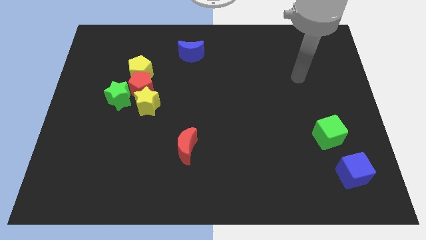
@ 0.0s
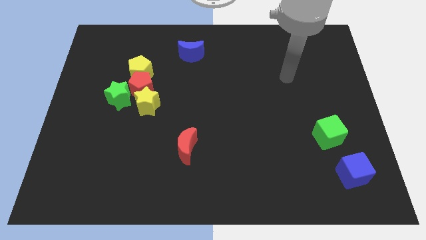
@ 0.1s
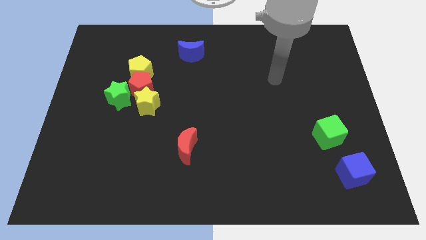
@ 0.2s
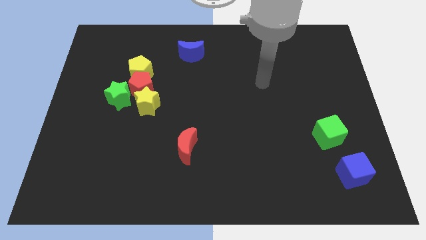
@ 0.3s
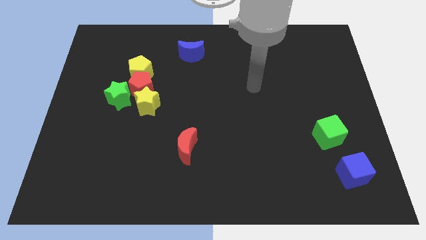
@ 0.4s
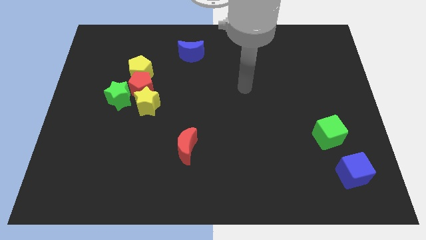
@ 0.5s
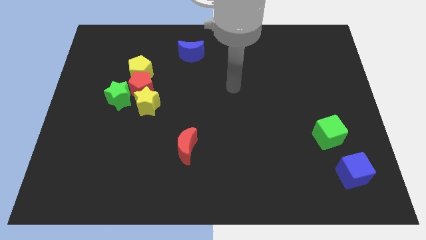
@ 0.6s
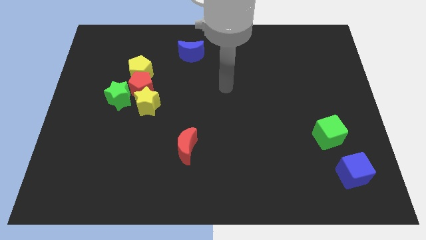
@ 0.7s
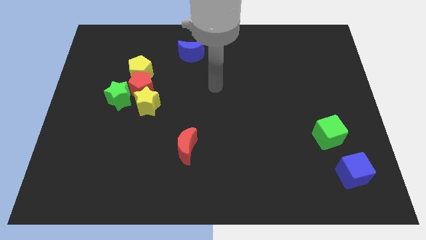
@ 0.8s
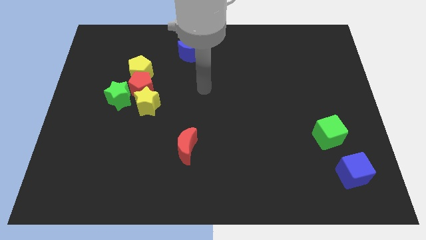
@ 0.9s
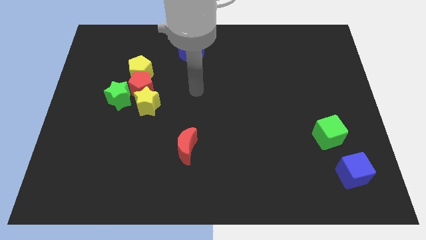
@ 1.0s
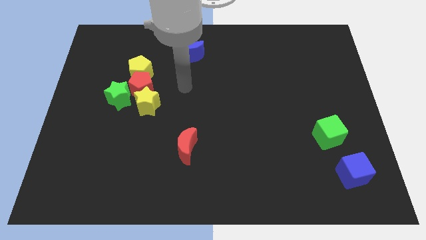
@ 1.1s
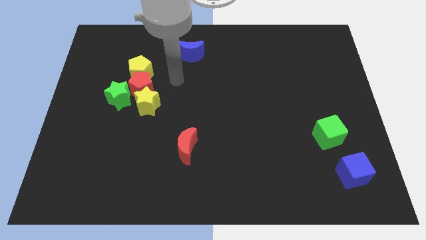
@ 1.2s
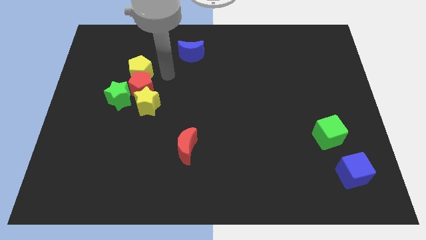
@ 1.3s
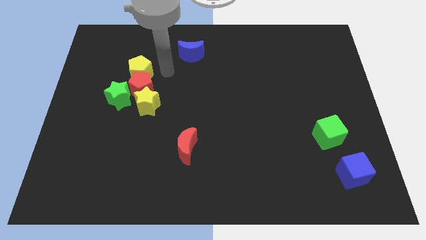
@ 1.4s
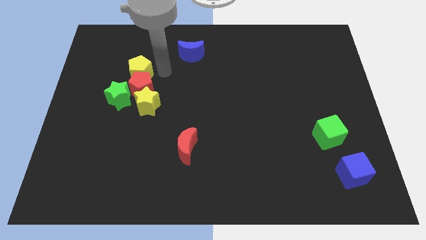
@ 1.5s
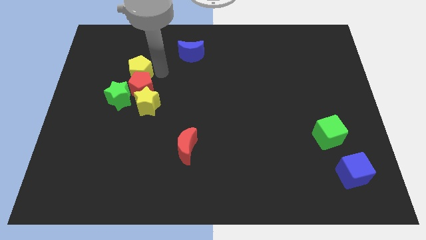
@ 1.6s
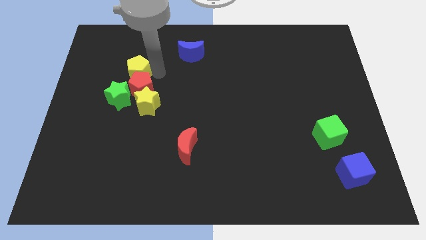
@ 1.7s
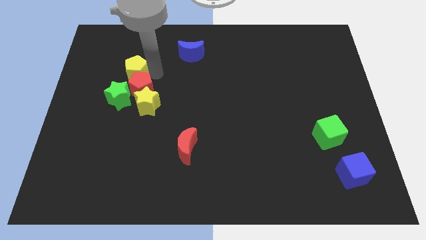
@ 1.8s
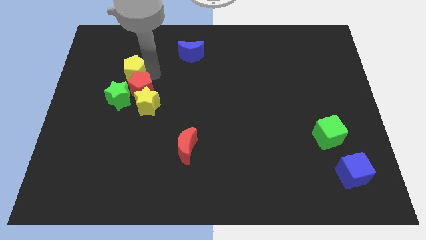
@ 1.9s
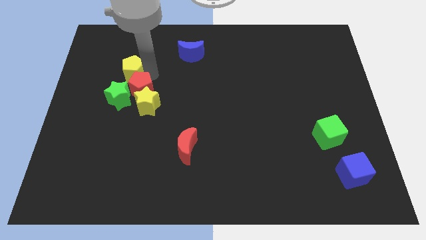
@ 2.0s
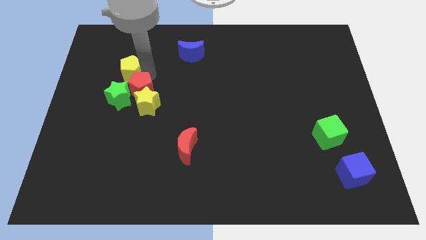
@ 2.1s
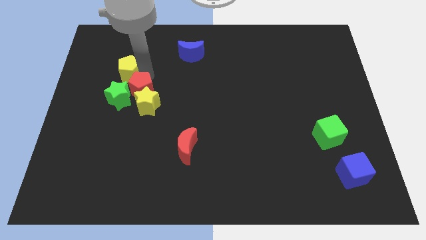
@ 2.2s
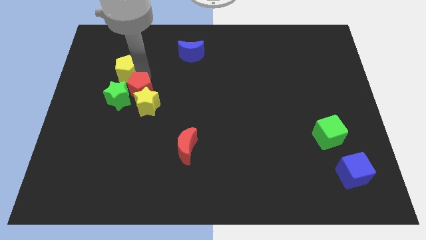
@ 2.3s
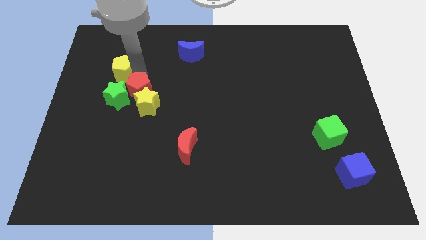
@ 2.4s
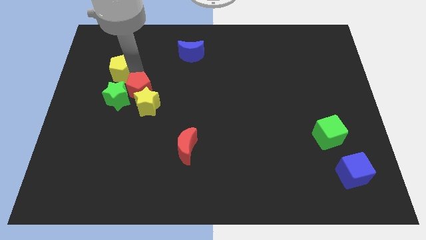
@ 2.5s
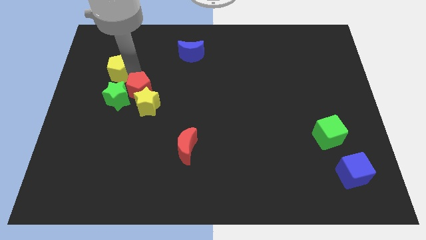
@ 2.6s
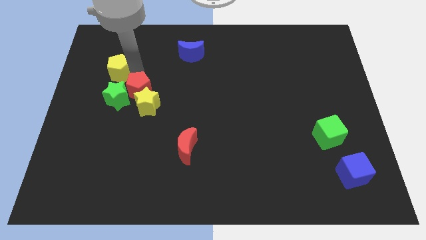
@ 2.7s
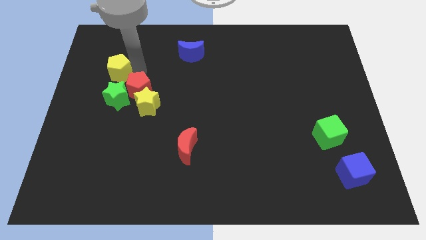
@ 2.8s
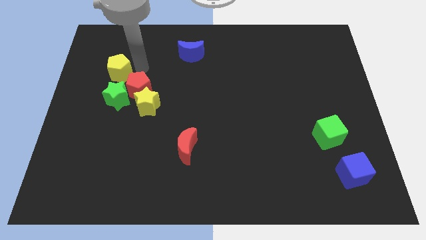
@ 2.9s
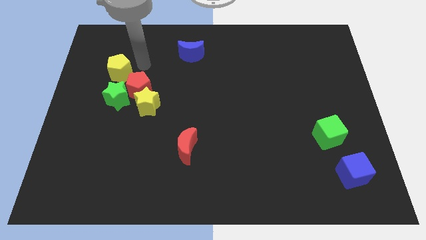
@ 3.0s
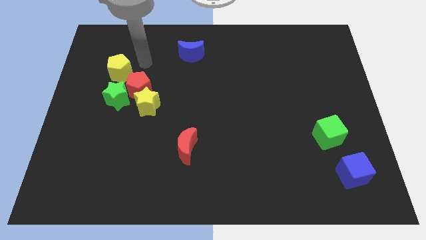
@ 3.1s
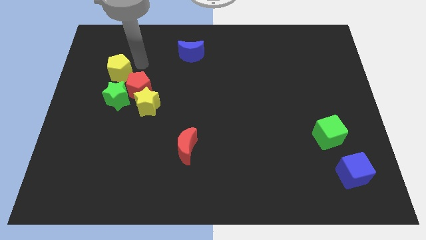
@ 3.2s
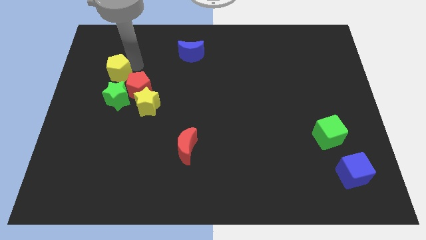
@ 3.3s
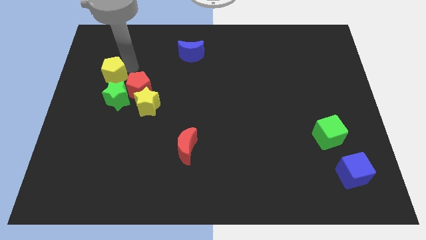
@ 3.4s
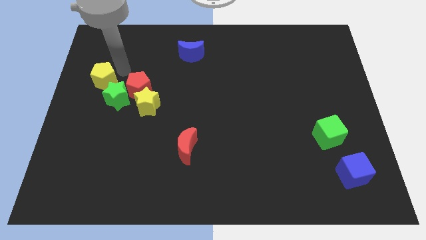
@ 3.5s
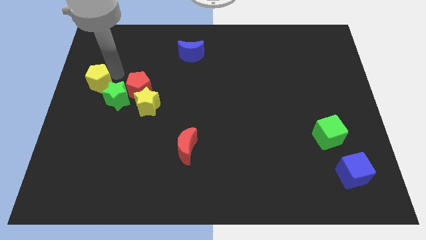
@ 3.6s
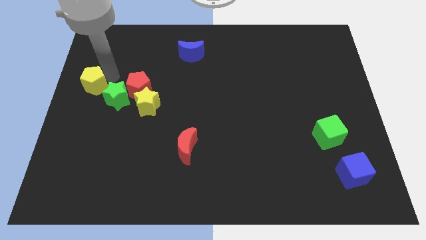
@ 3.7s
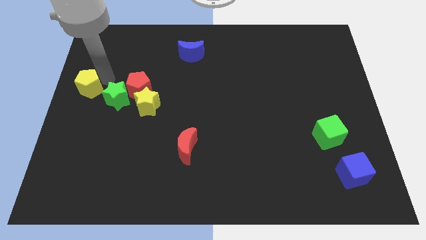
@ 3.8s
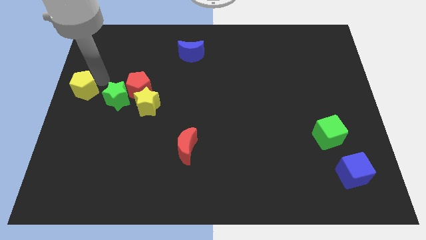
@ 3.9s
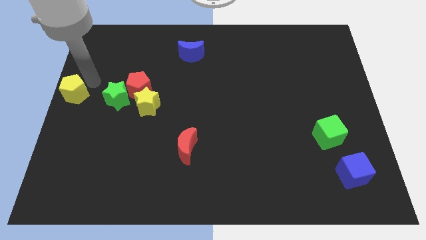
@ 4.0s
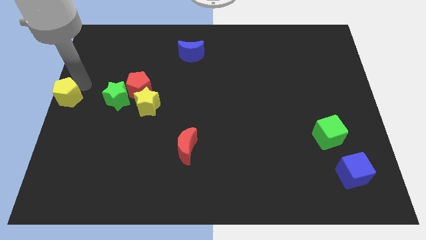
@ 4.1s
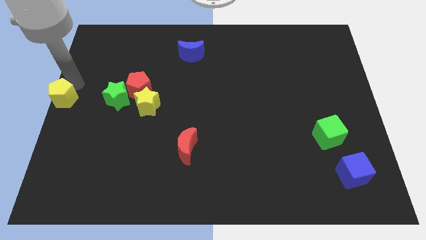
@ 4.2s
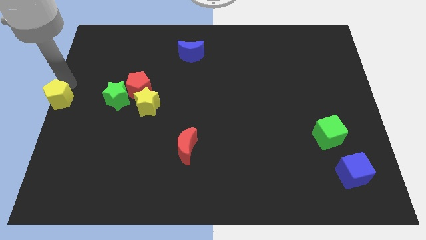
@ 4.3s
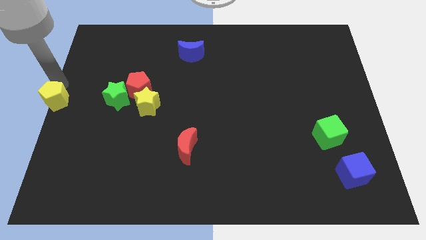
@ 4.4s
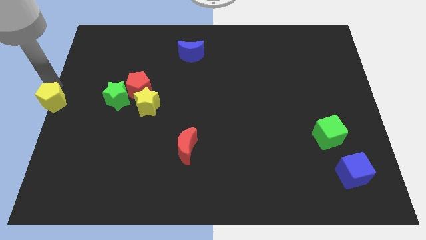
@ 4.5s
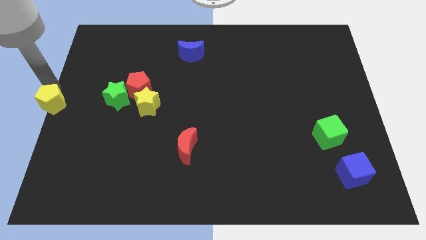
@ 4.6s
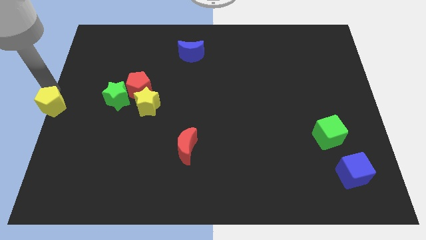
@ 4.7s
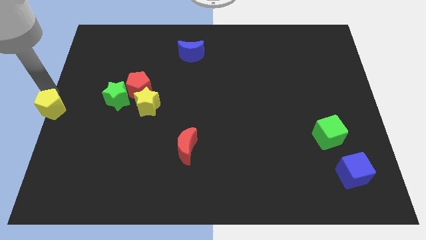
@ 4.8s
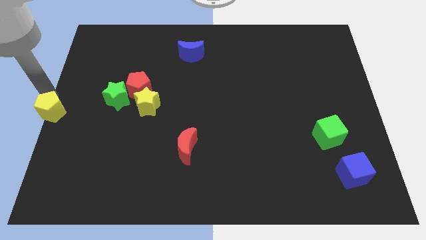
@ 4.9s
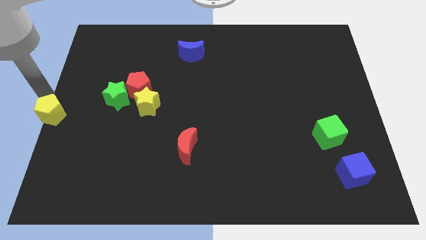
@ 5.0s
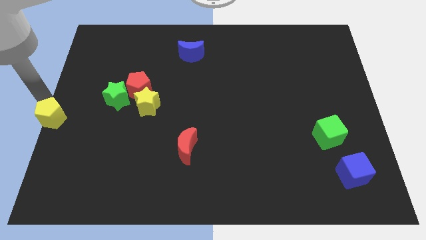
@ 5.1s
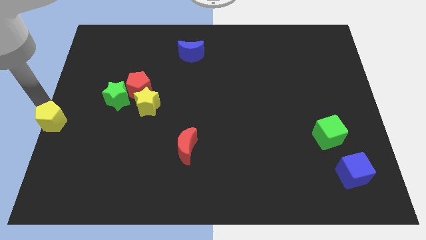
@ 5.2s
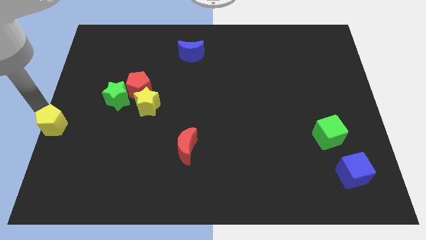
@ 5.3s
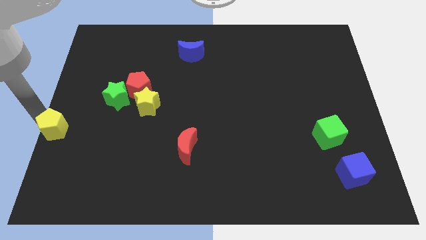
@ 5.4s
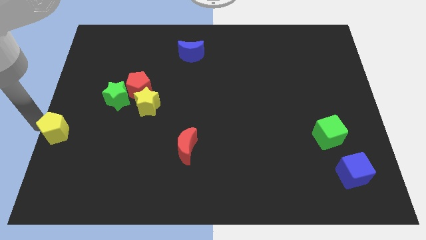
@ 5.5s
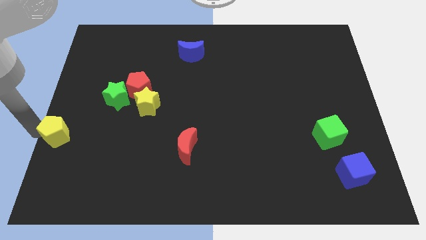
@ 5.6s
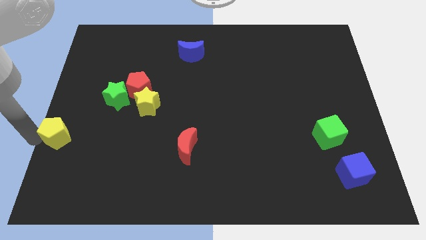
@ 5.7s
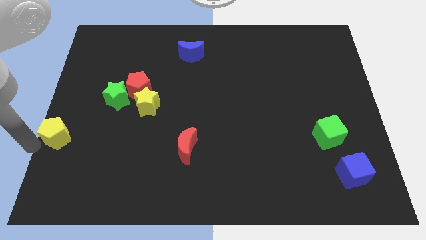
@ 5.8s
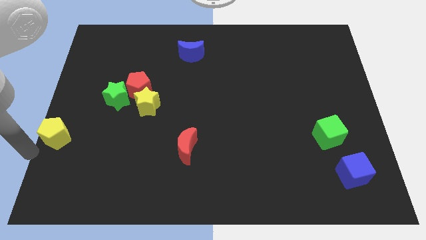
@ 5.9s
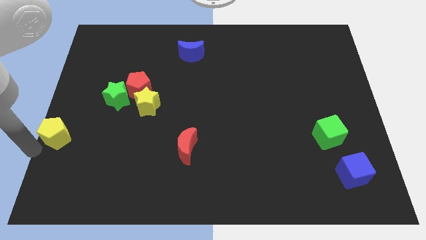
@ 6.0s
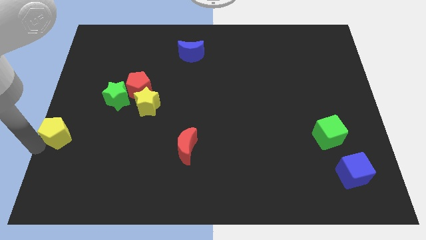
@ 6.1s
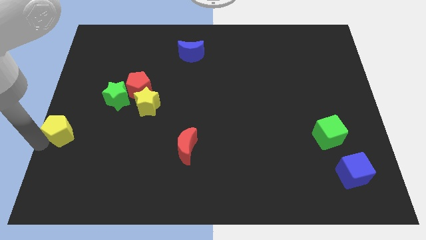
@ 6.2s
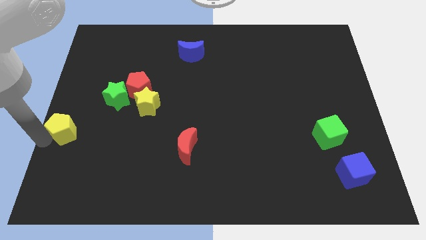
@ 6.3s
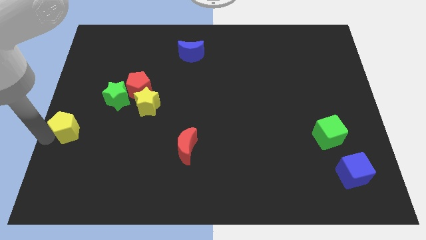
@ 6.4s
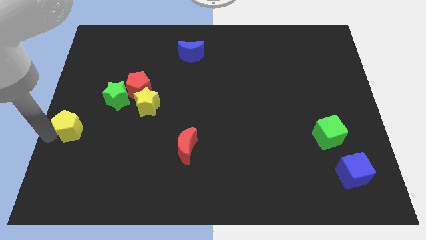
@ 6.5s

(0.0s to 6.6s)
push the yellow pentagon diagonally down and to the left of the green star

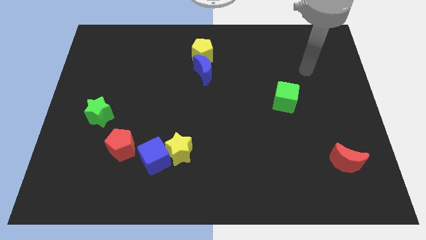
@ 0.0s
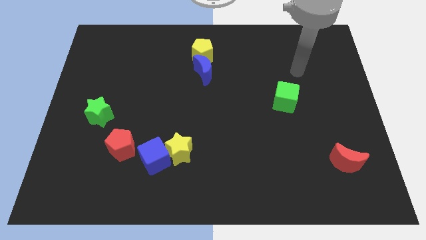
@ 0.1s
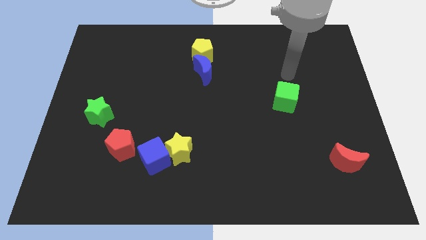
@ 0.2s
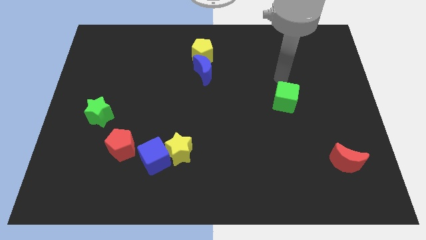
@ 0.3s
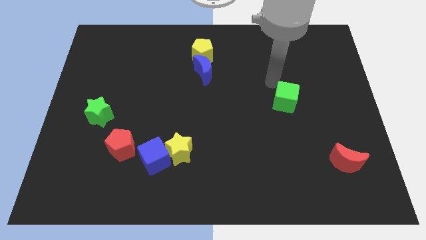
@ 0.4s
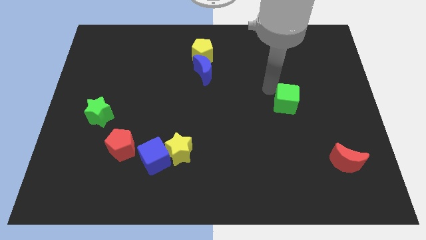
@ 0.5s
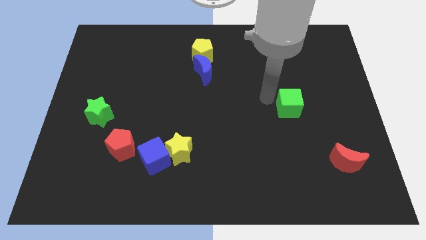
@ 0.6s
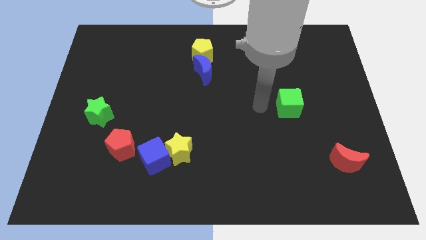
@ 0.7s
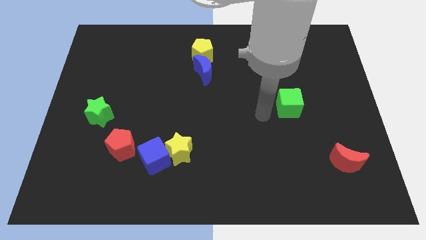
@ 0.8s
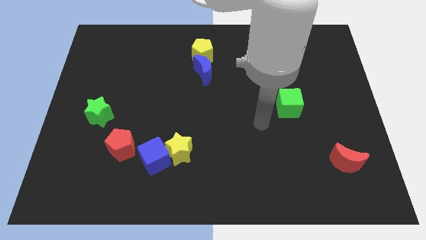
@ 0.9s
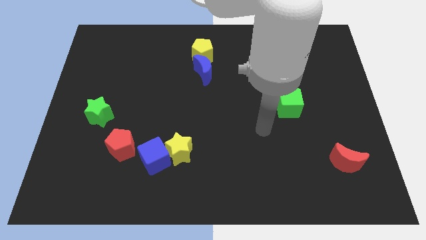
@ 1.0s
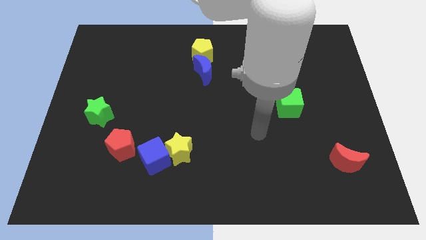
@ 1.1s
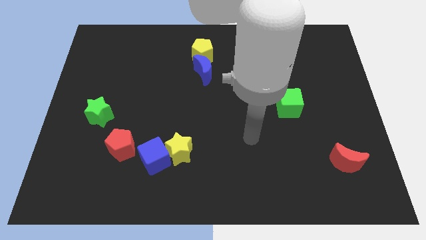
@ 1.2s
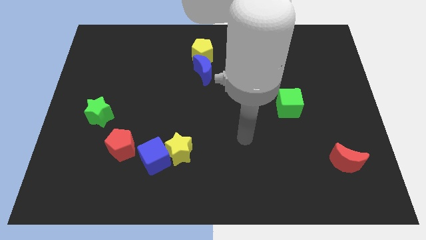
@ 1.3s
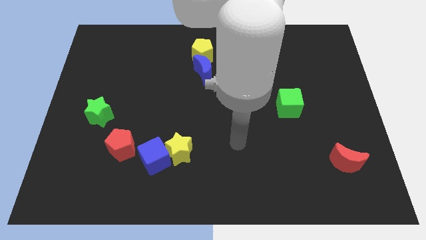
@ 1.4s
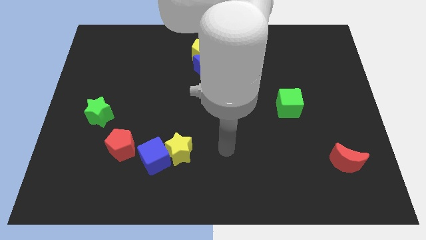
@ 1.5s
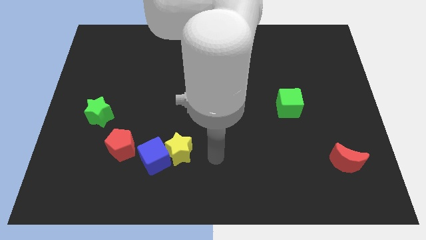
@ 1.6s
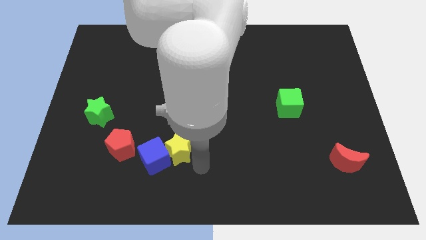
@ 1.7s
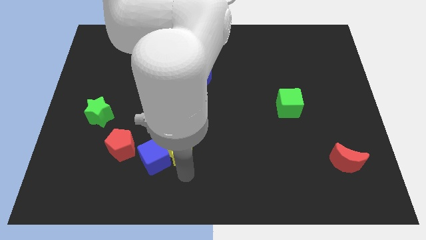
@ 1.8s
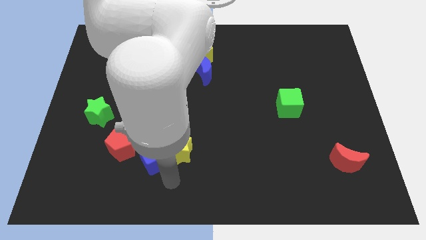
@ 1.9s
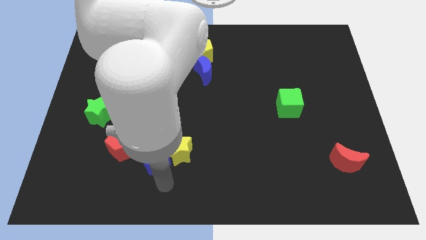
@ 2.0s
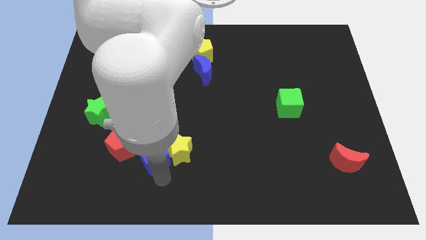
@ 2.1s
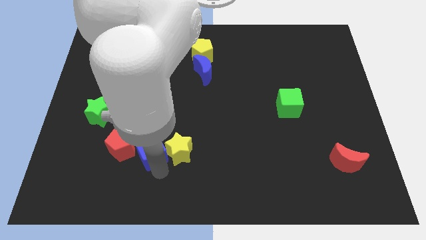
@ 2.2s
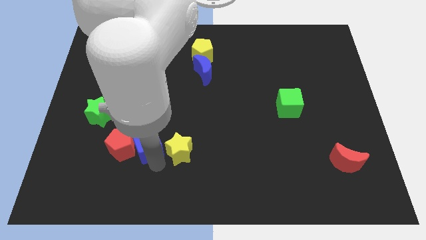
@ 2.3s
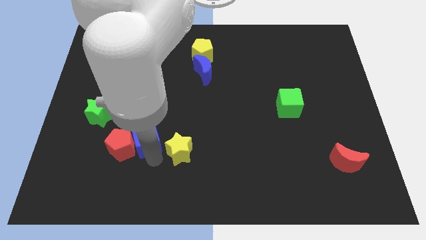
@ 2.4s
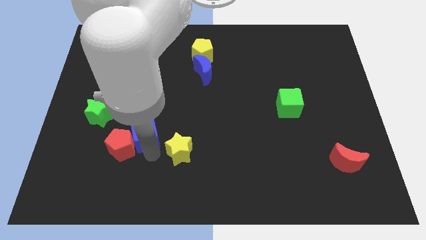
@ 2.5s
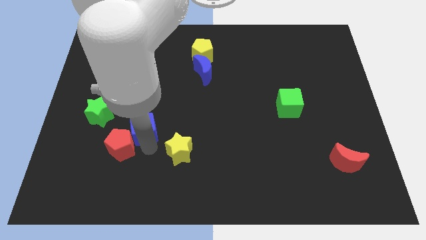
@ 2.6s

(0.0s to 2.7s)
slide the blue cube right of the green star
